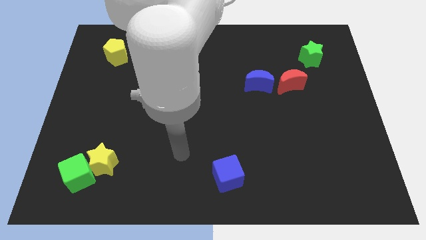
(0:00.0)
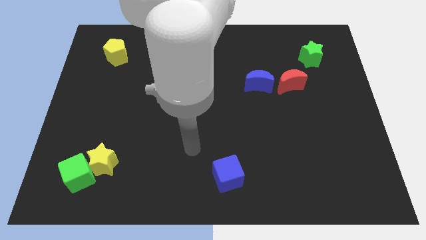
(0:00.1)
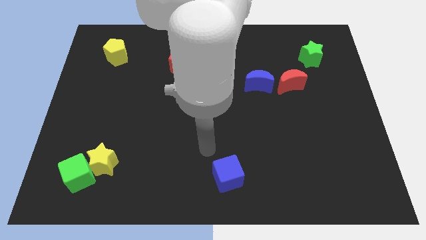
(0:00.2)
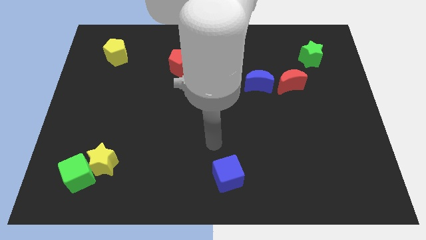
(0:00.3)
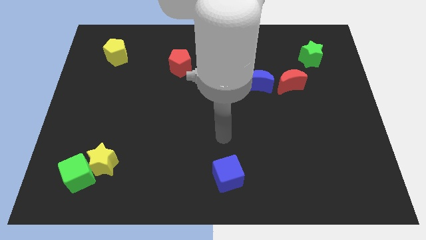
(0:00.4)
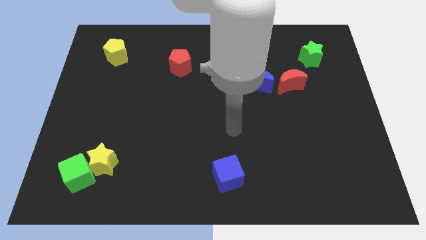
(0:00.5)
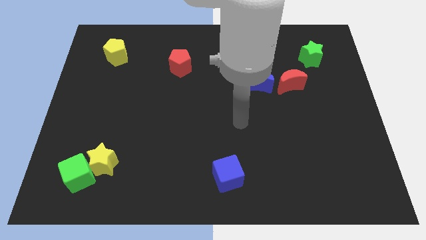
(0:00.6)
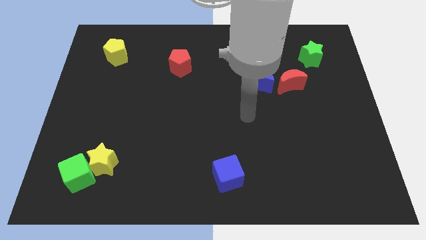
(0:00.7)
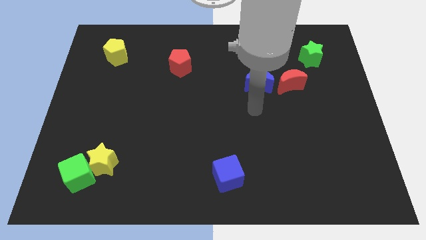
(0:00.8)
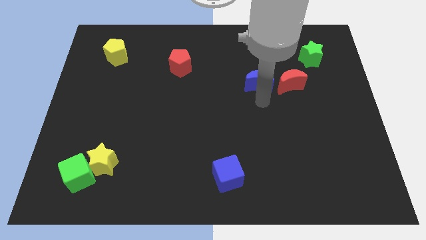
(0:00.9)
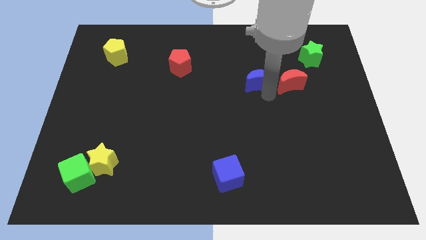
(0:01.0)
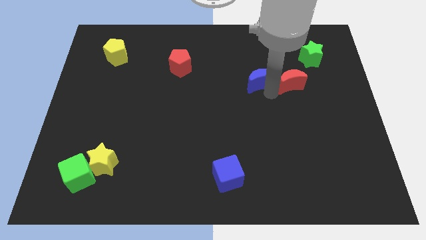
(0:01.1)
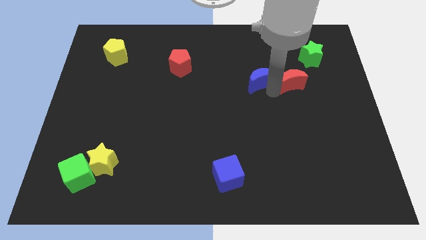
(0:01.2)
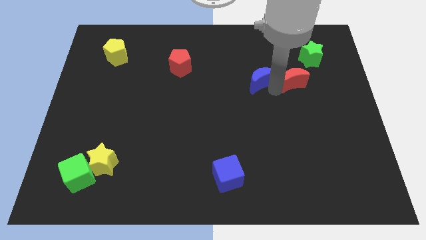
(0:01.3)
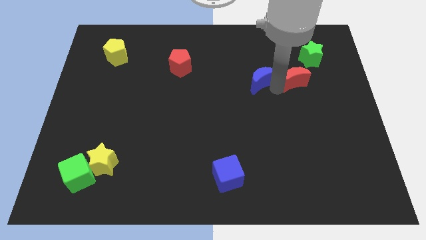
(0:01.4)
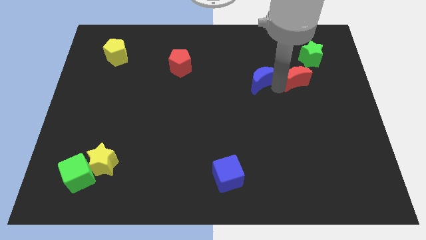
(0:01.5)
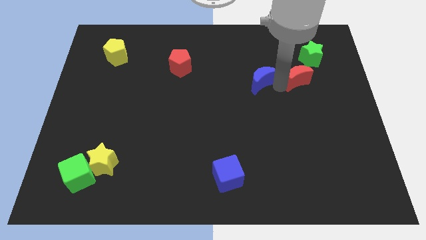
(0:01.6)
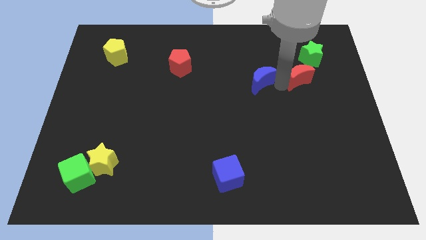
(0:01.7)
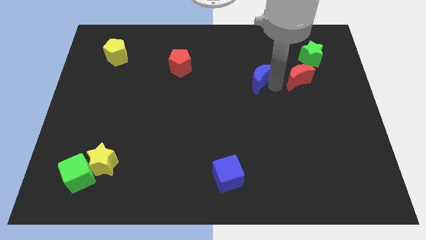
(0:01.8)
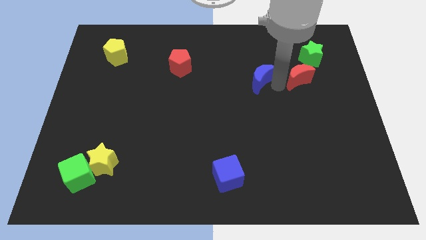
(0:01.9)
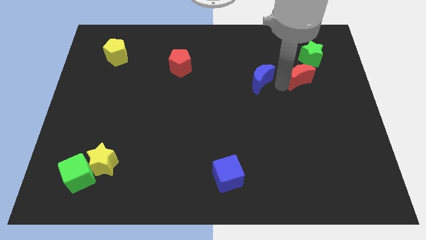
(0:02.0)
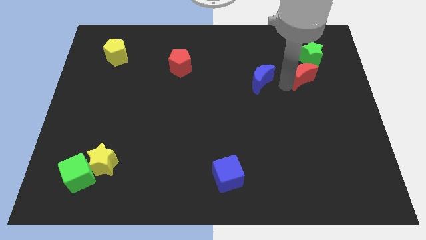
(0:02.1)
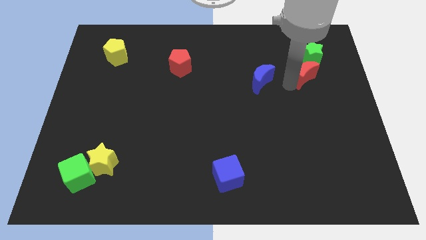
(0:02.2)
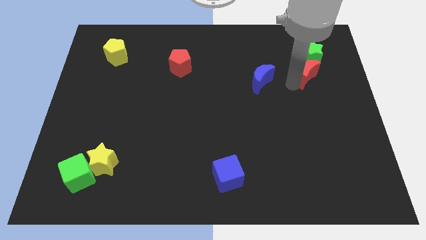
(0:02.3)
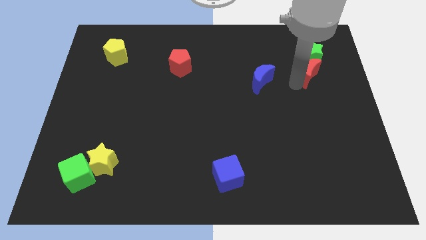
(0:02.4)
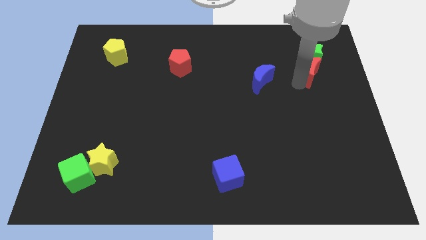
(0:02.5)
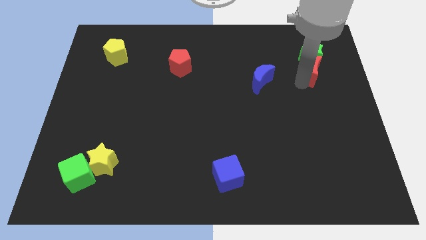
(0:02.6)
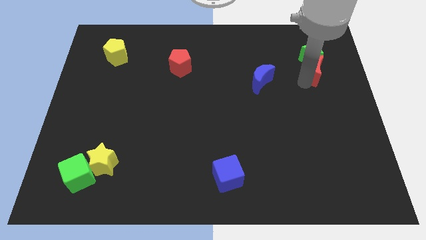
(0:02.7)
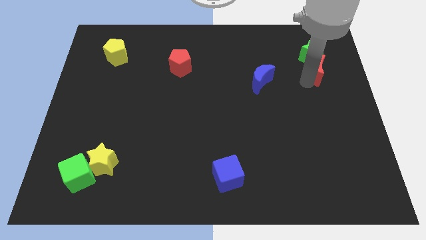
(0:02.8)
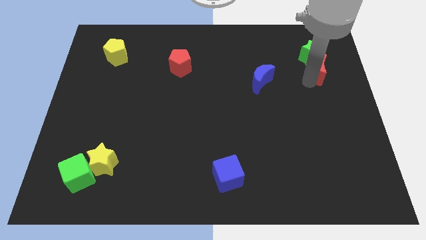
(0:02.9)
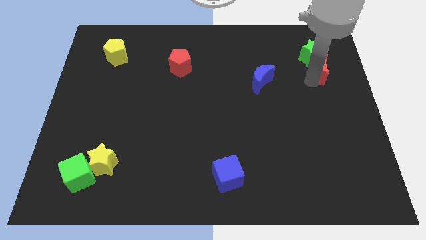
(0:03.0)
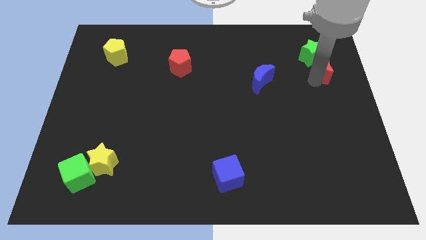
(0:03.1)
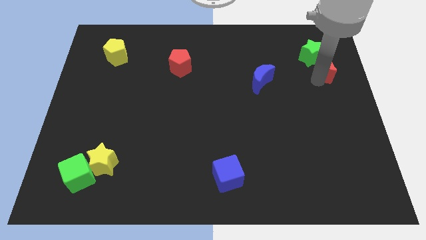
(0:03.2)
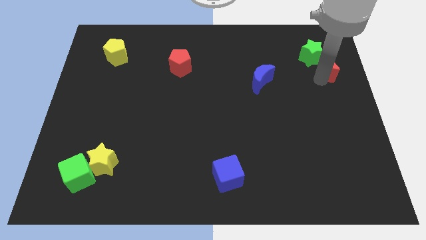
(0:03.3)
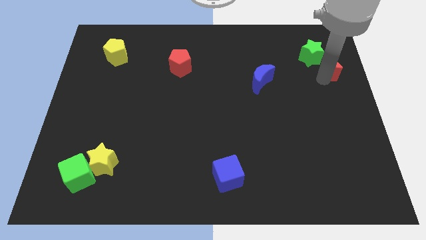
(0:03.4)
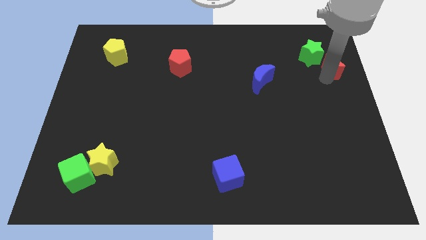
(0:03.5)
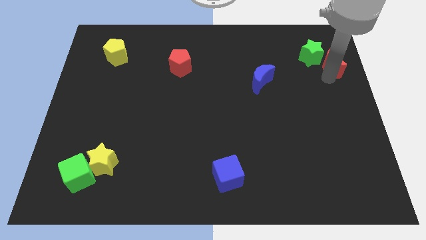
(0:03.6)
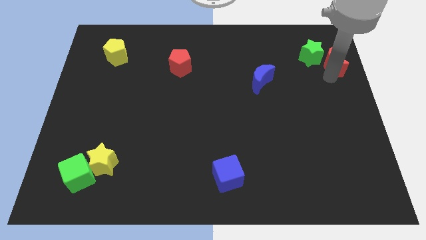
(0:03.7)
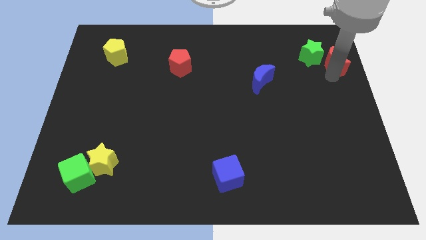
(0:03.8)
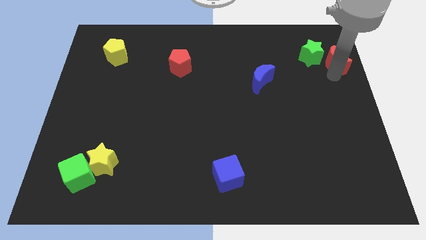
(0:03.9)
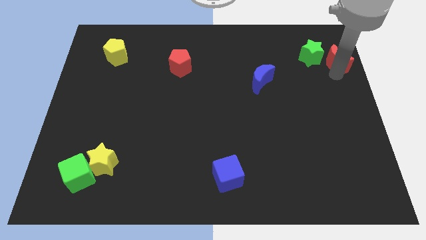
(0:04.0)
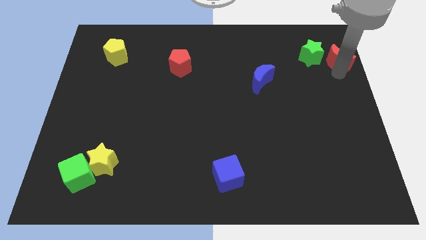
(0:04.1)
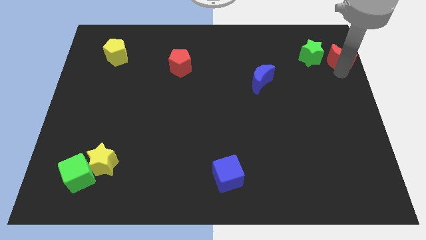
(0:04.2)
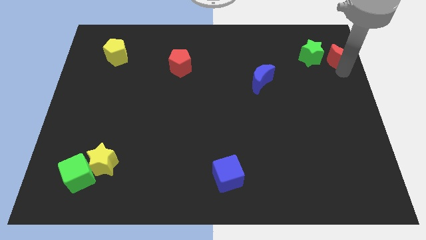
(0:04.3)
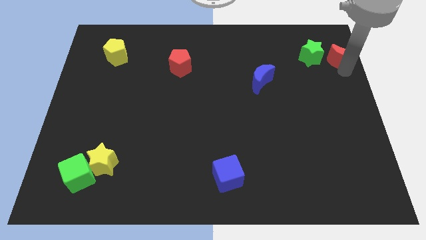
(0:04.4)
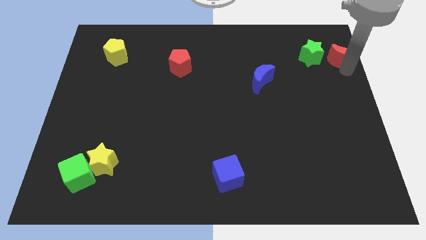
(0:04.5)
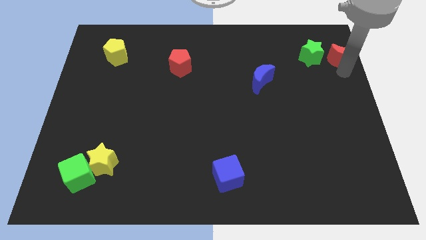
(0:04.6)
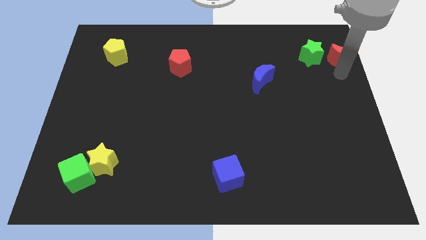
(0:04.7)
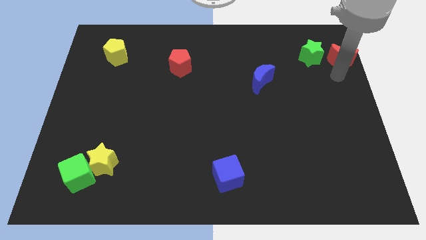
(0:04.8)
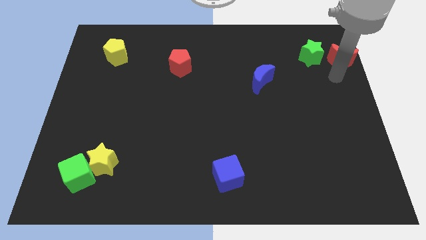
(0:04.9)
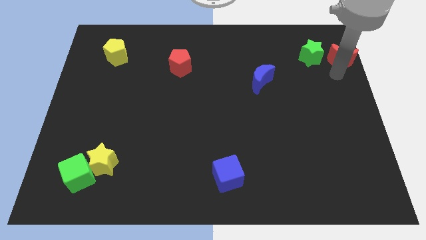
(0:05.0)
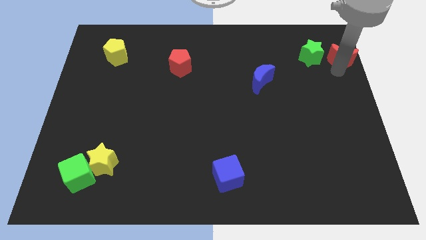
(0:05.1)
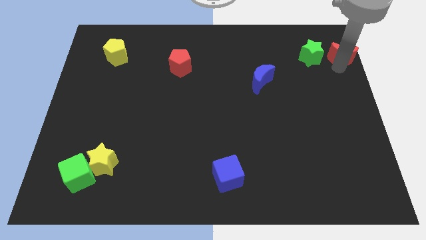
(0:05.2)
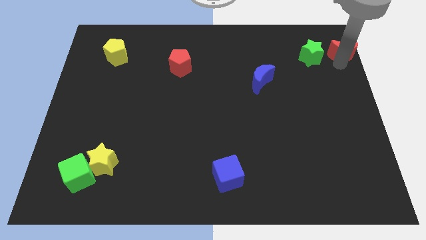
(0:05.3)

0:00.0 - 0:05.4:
push the red moon to the top right

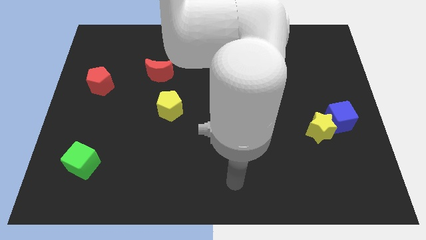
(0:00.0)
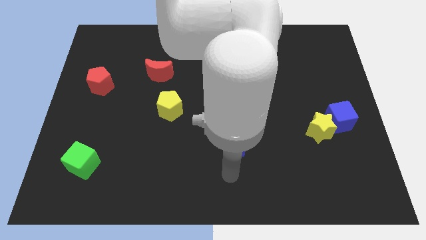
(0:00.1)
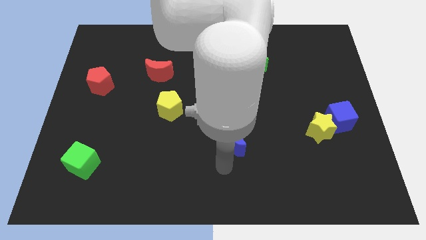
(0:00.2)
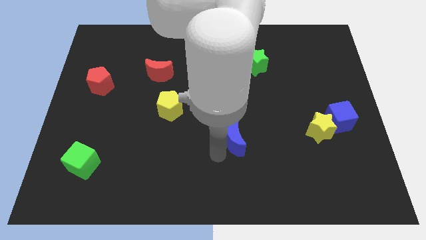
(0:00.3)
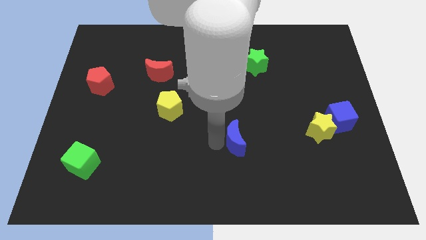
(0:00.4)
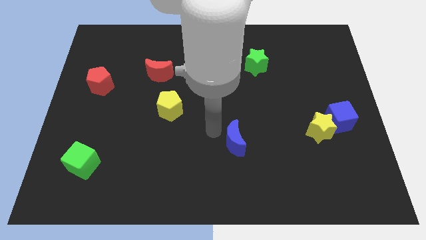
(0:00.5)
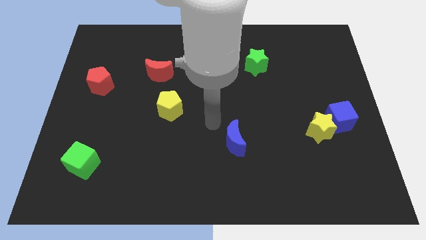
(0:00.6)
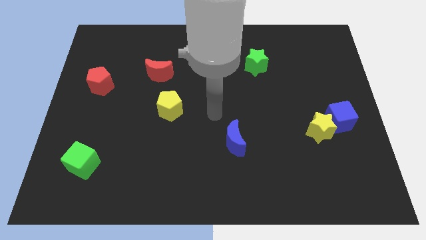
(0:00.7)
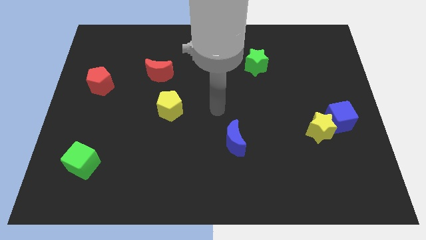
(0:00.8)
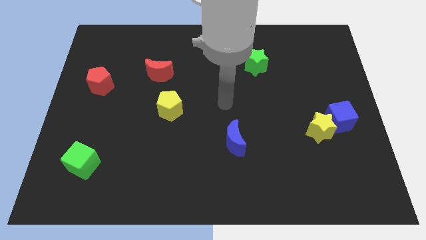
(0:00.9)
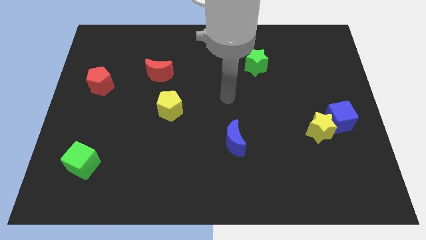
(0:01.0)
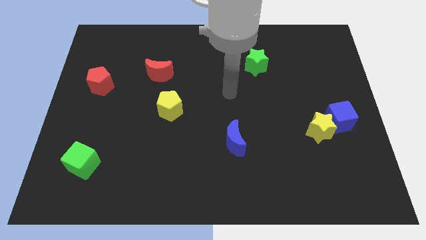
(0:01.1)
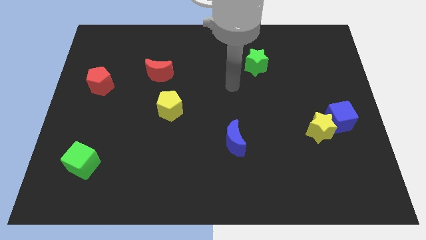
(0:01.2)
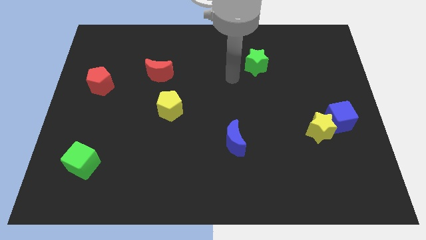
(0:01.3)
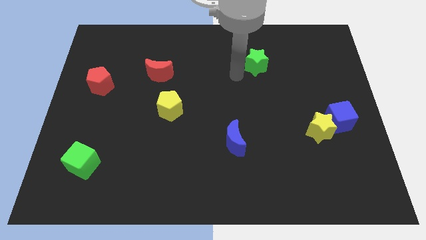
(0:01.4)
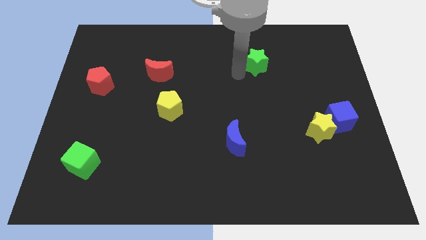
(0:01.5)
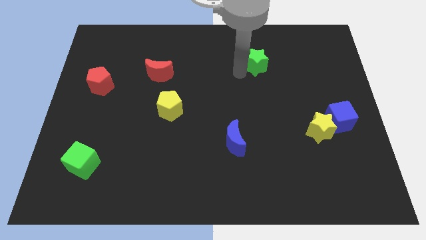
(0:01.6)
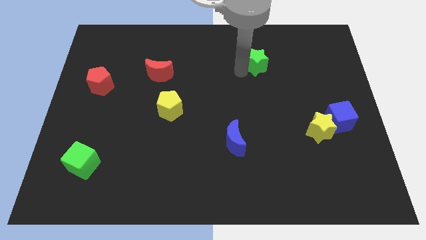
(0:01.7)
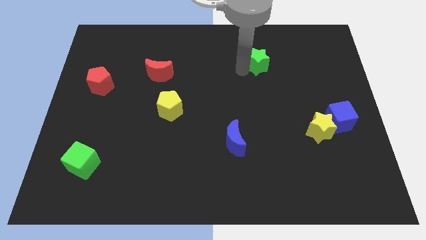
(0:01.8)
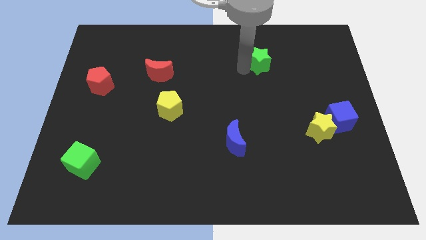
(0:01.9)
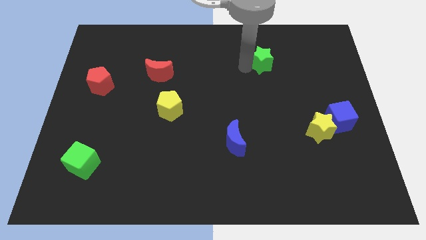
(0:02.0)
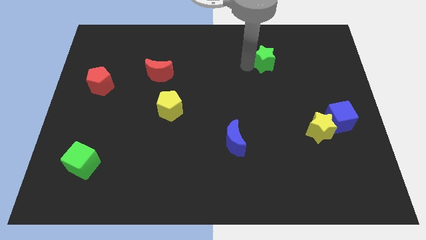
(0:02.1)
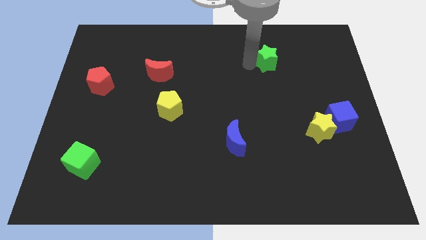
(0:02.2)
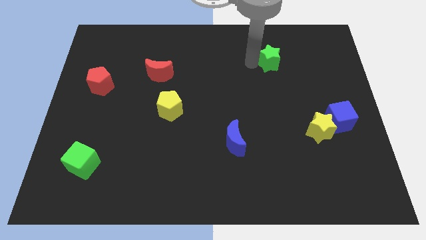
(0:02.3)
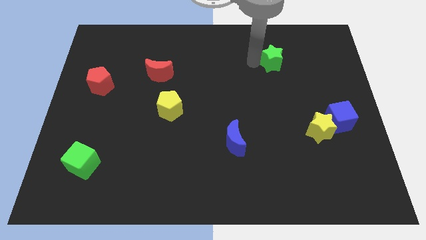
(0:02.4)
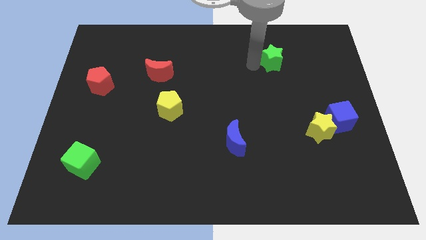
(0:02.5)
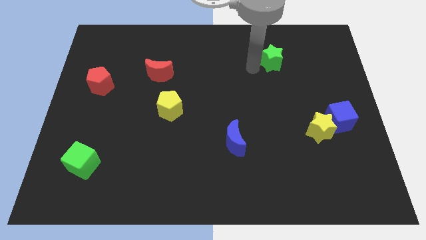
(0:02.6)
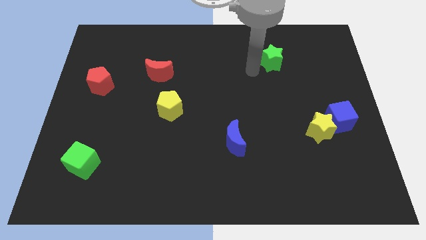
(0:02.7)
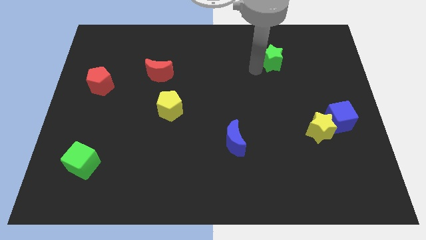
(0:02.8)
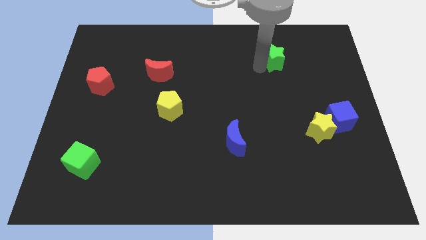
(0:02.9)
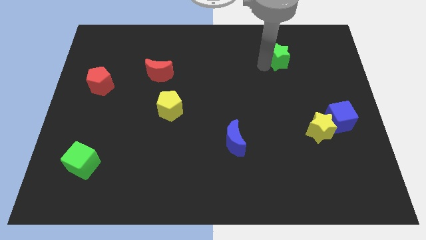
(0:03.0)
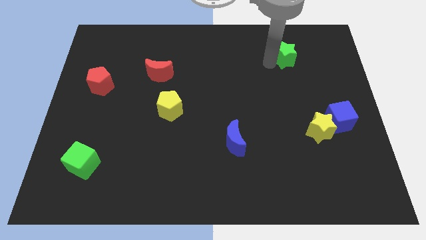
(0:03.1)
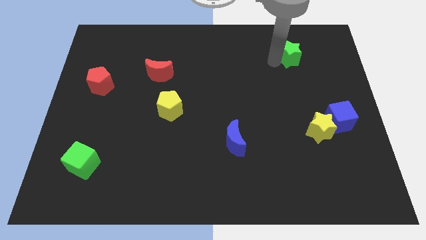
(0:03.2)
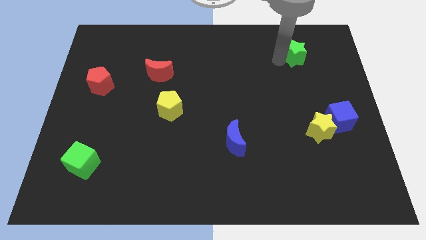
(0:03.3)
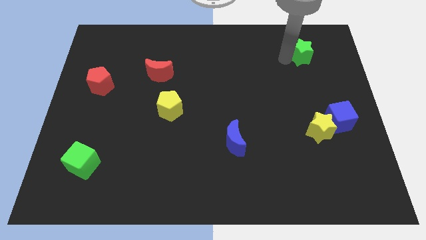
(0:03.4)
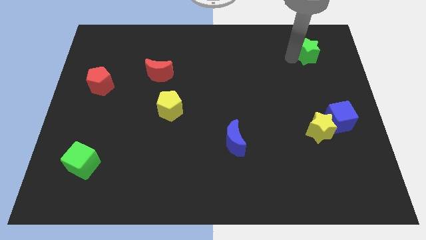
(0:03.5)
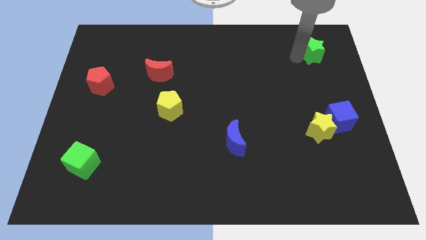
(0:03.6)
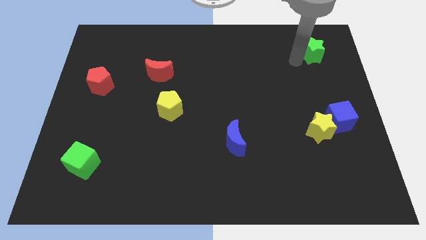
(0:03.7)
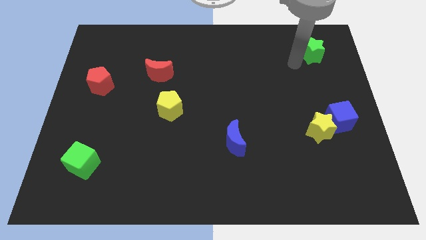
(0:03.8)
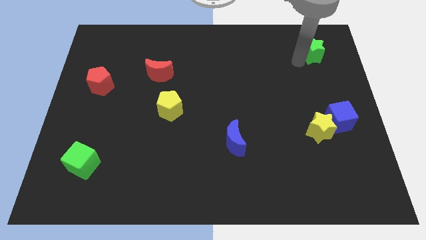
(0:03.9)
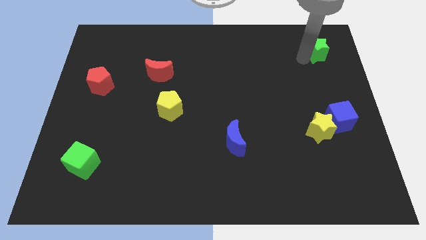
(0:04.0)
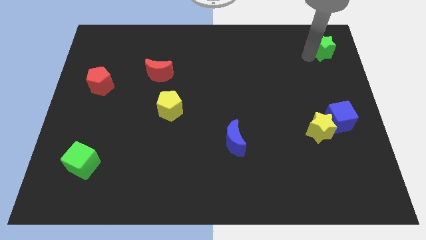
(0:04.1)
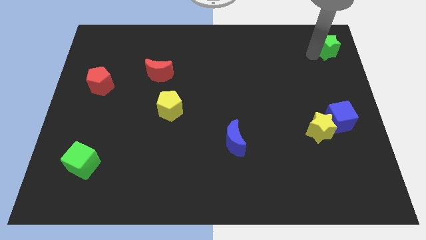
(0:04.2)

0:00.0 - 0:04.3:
put the green star to the top right
